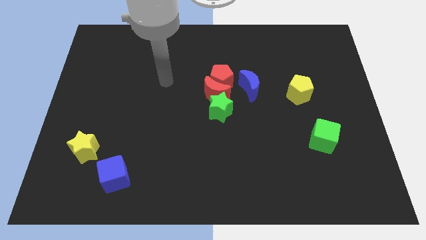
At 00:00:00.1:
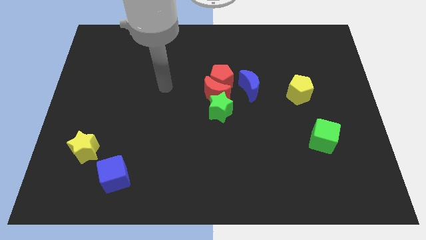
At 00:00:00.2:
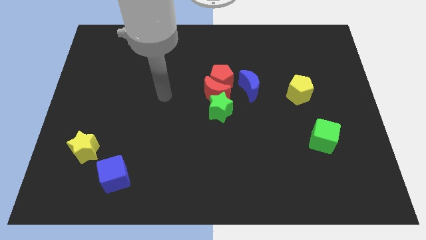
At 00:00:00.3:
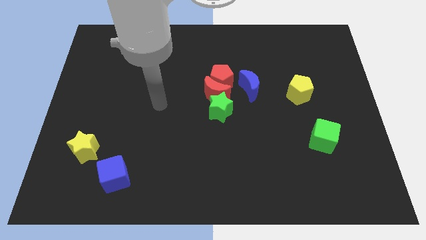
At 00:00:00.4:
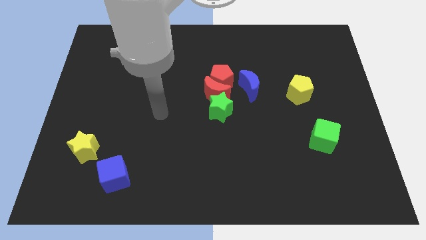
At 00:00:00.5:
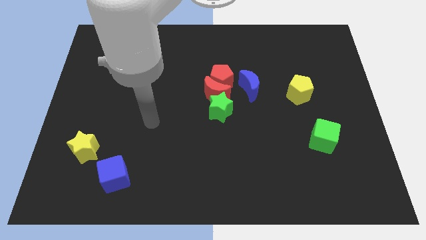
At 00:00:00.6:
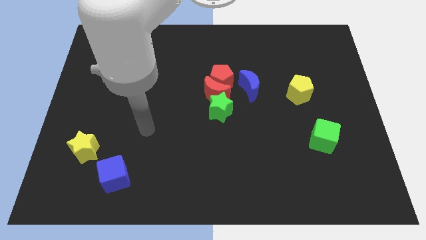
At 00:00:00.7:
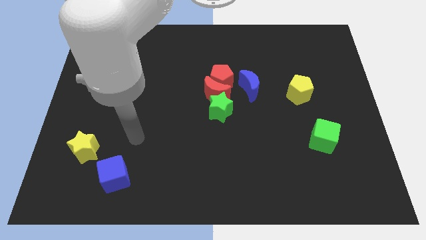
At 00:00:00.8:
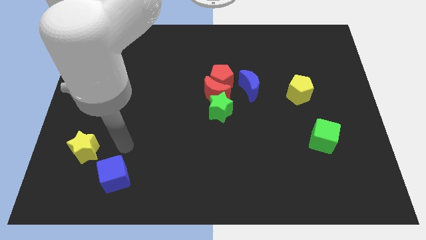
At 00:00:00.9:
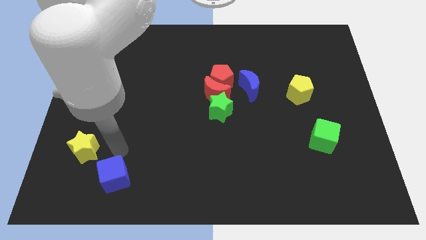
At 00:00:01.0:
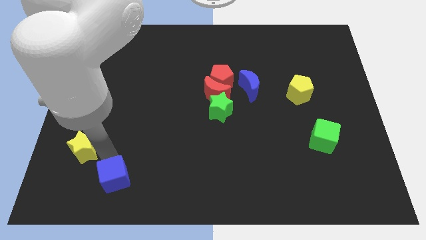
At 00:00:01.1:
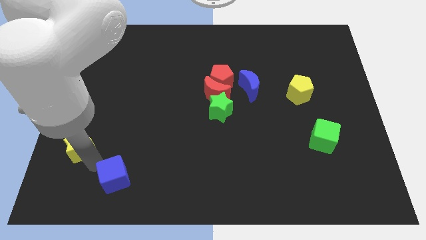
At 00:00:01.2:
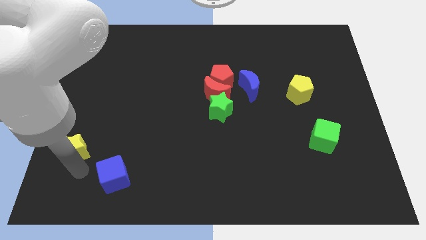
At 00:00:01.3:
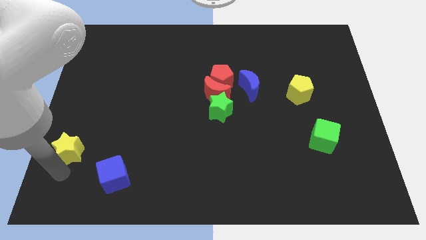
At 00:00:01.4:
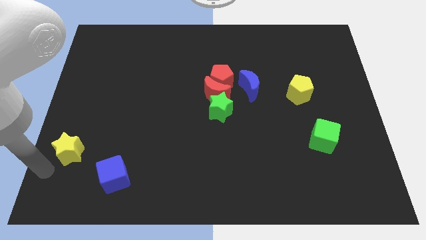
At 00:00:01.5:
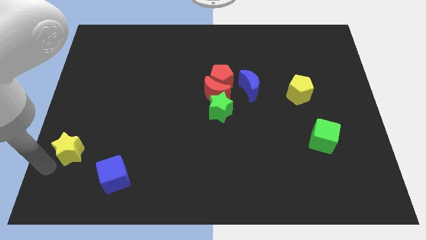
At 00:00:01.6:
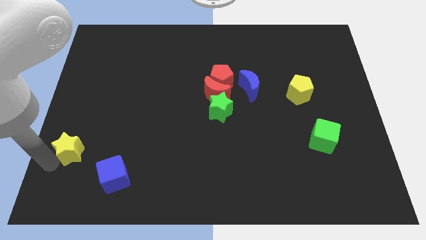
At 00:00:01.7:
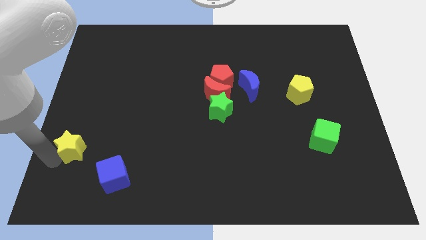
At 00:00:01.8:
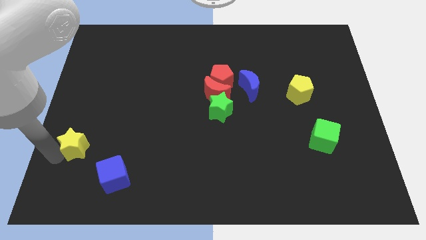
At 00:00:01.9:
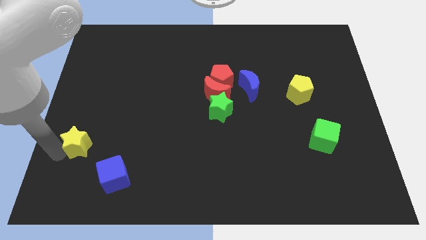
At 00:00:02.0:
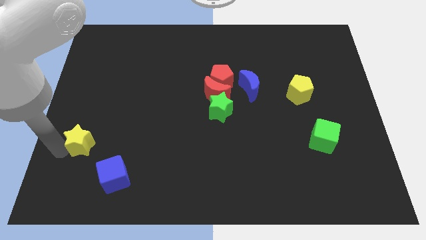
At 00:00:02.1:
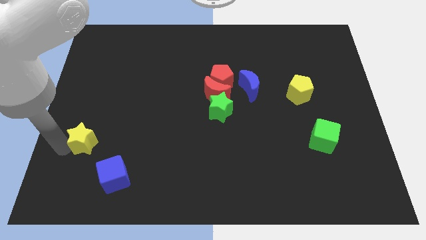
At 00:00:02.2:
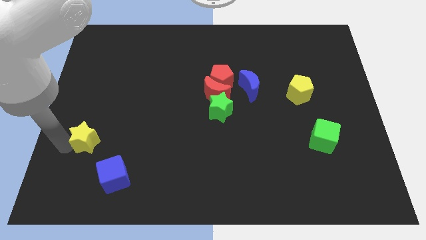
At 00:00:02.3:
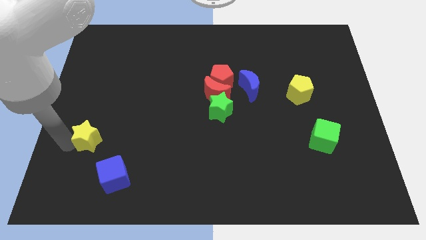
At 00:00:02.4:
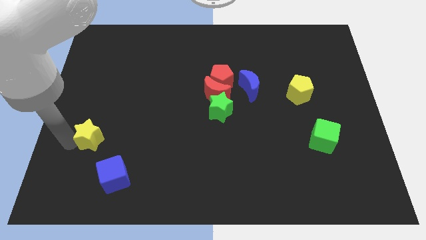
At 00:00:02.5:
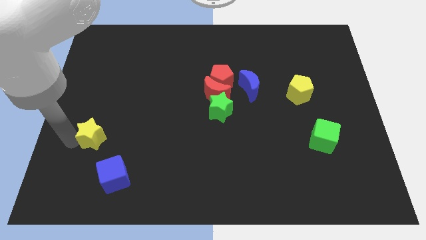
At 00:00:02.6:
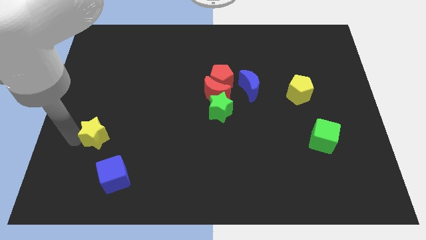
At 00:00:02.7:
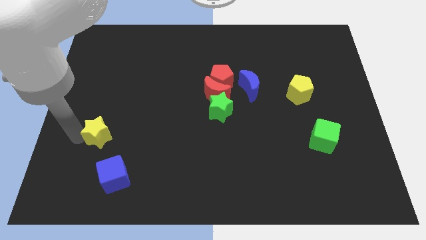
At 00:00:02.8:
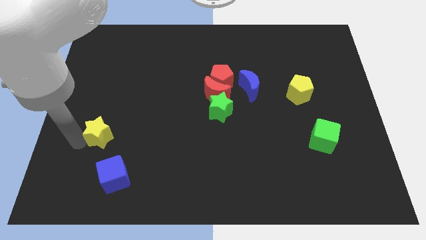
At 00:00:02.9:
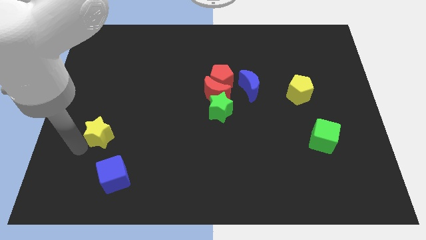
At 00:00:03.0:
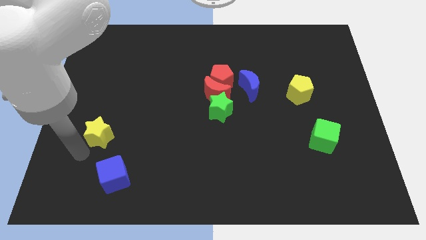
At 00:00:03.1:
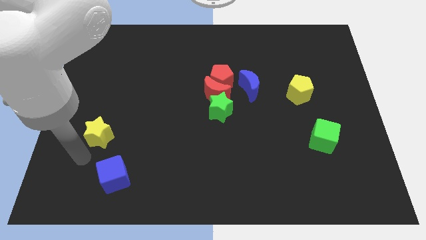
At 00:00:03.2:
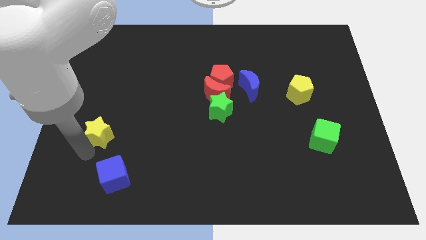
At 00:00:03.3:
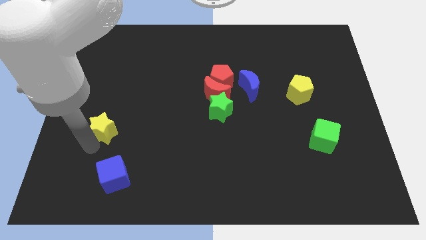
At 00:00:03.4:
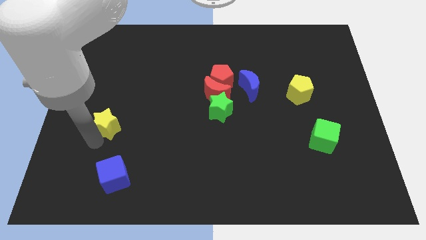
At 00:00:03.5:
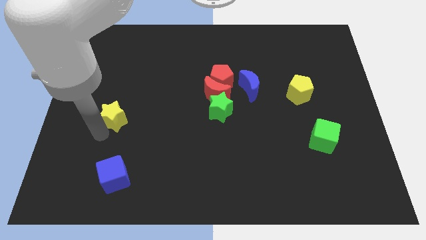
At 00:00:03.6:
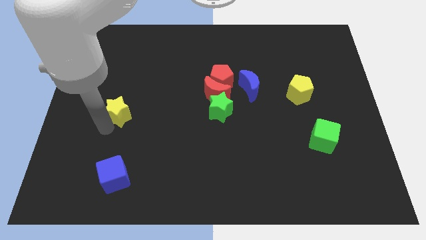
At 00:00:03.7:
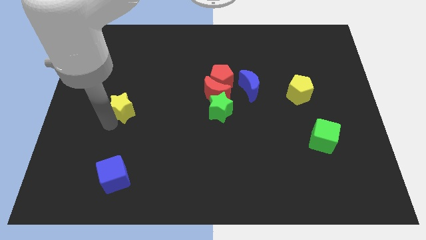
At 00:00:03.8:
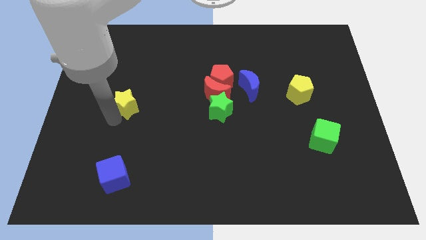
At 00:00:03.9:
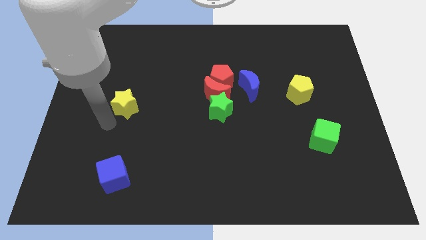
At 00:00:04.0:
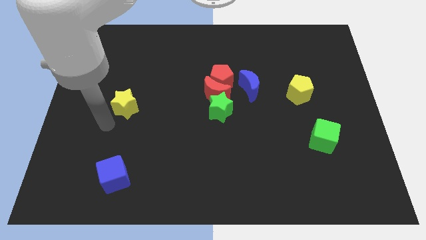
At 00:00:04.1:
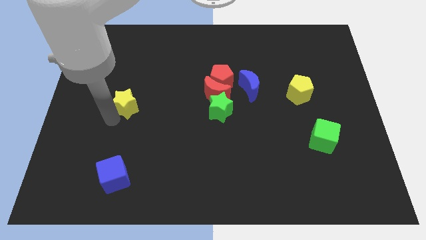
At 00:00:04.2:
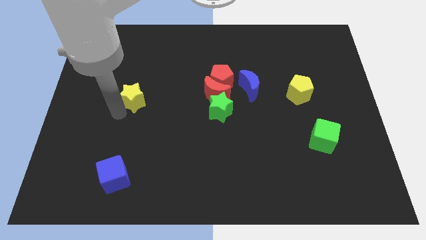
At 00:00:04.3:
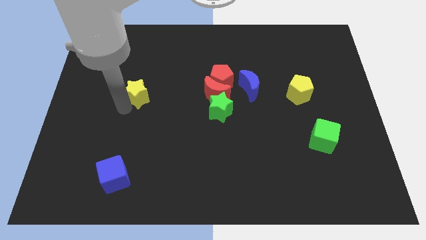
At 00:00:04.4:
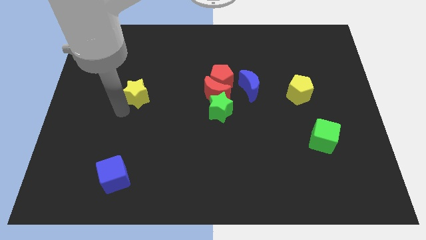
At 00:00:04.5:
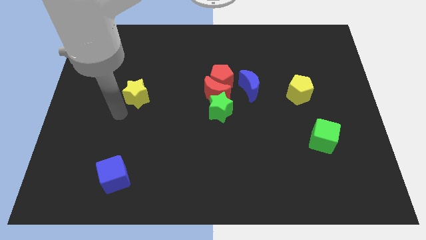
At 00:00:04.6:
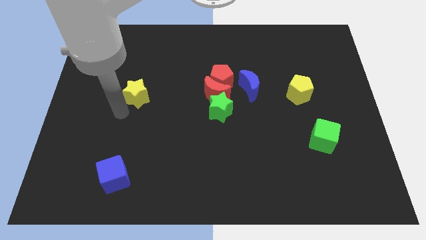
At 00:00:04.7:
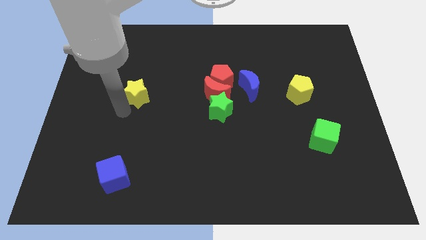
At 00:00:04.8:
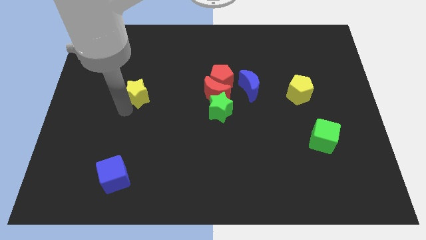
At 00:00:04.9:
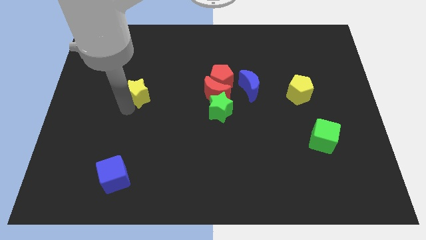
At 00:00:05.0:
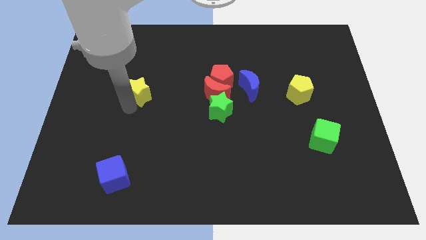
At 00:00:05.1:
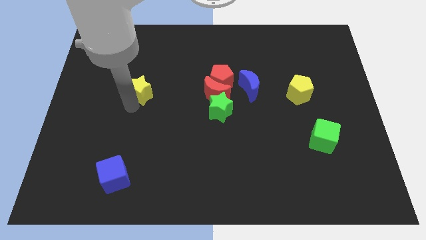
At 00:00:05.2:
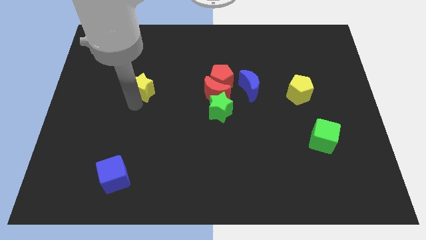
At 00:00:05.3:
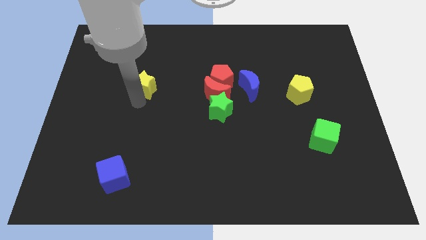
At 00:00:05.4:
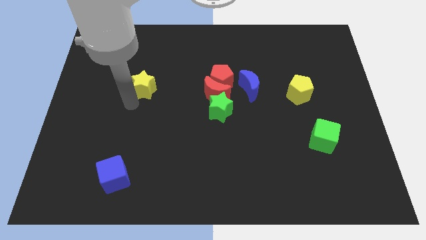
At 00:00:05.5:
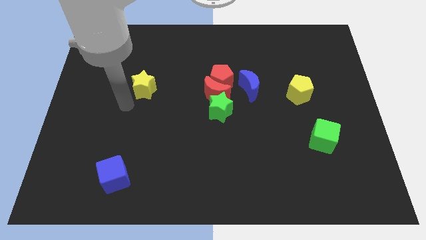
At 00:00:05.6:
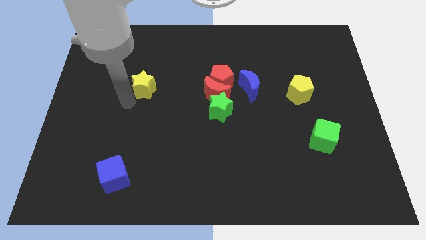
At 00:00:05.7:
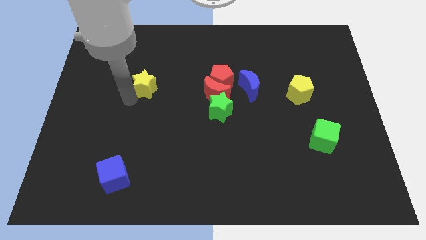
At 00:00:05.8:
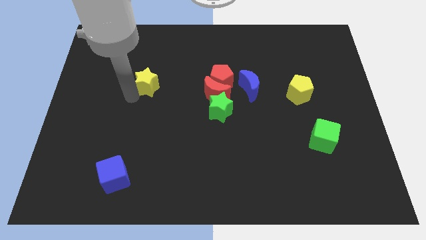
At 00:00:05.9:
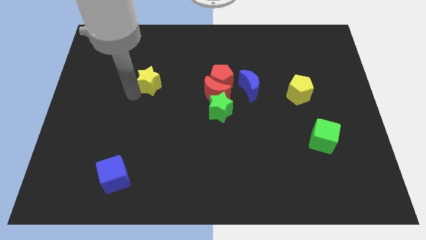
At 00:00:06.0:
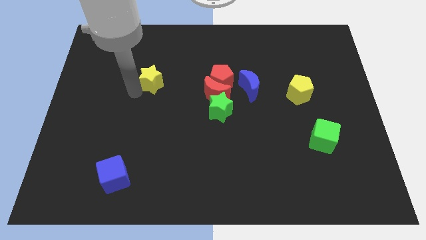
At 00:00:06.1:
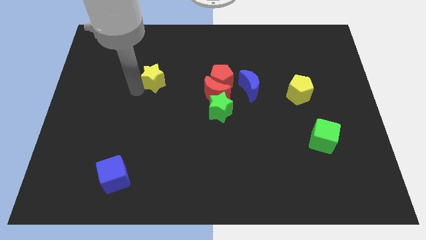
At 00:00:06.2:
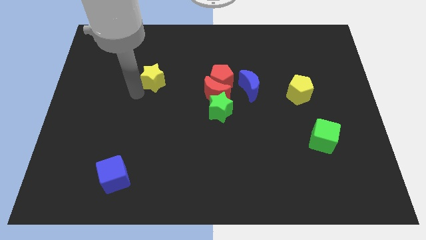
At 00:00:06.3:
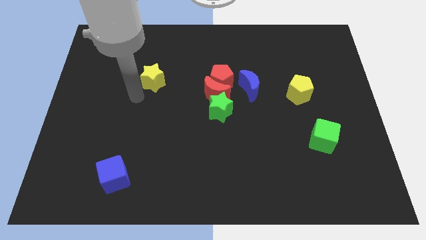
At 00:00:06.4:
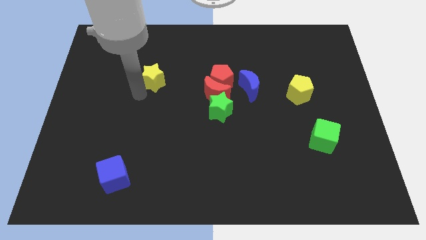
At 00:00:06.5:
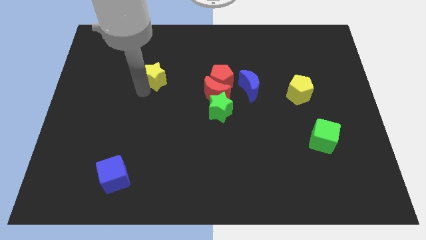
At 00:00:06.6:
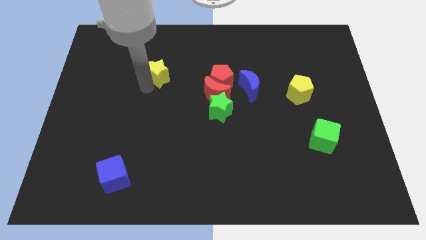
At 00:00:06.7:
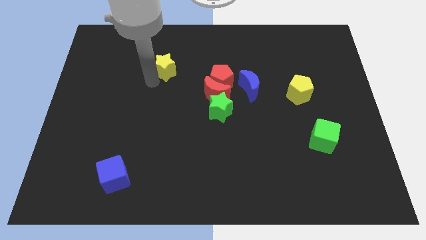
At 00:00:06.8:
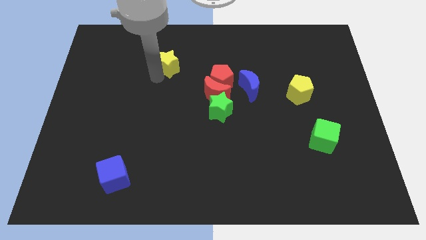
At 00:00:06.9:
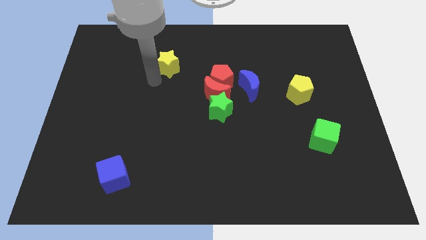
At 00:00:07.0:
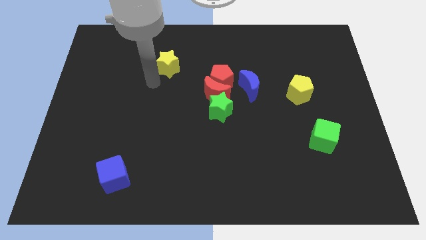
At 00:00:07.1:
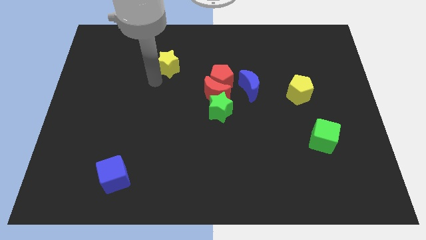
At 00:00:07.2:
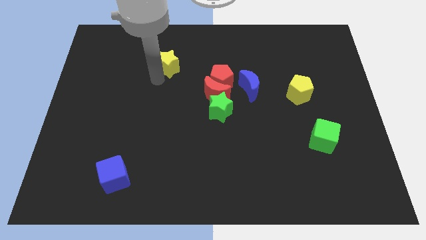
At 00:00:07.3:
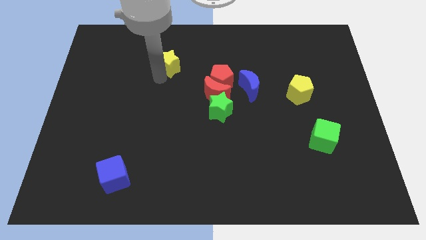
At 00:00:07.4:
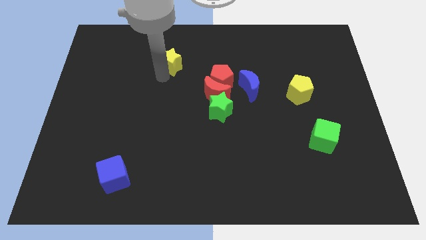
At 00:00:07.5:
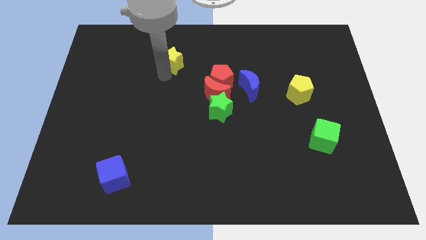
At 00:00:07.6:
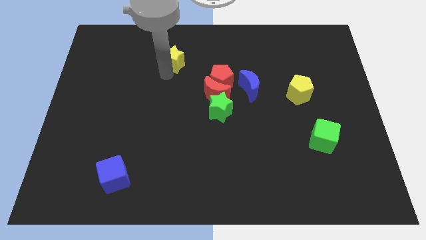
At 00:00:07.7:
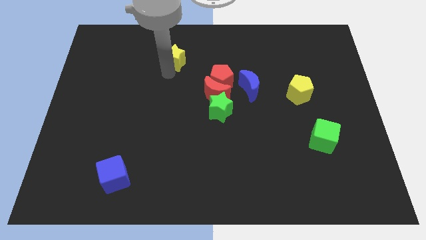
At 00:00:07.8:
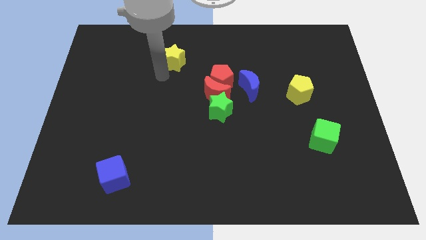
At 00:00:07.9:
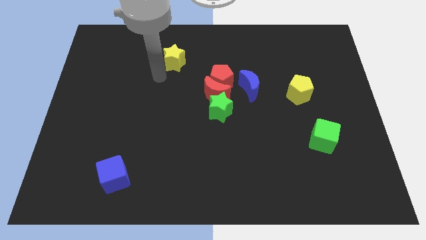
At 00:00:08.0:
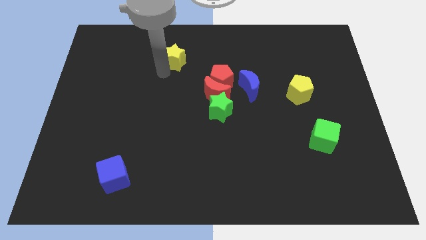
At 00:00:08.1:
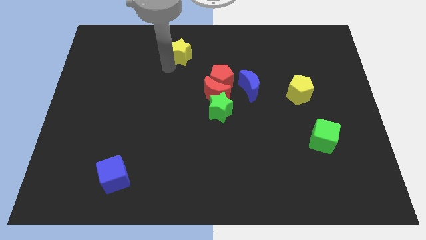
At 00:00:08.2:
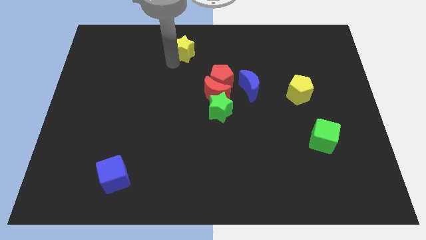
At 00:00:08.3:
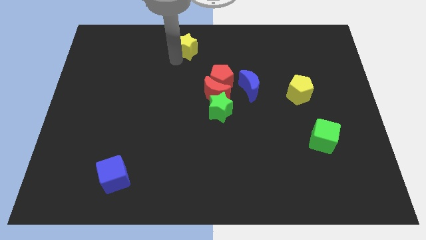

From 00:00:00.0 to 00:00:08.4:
push the yellow star to the towards your base
